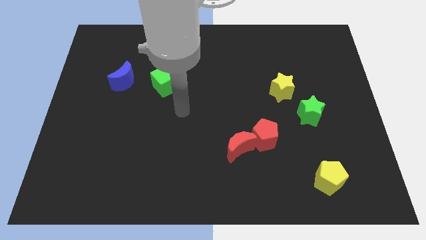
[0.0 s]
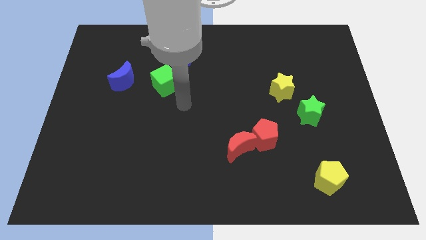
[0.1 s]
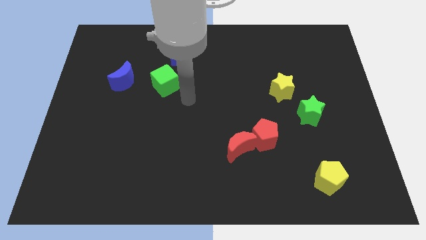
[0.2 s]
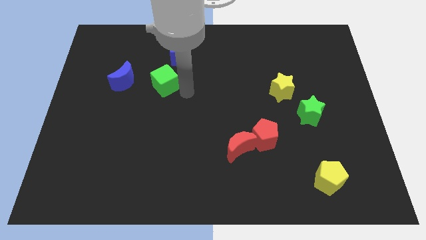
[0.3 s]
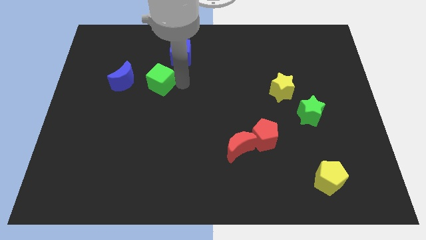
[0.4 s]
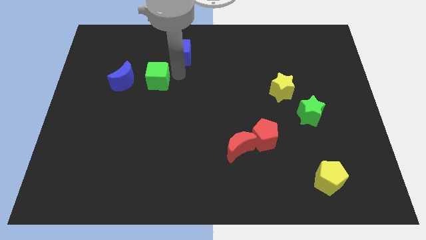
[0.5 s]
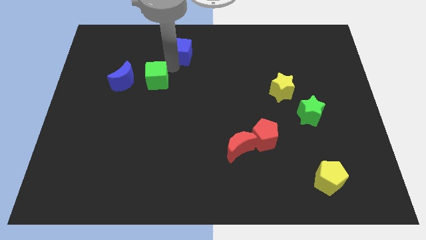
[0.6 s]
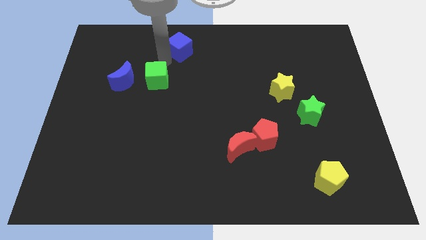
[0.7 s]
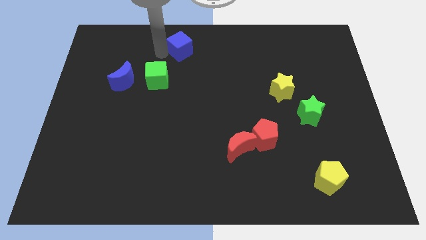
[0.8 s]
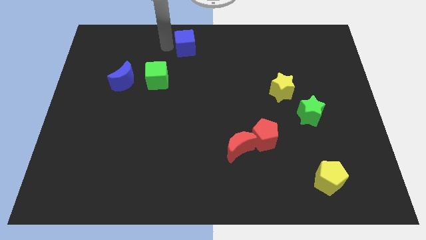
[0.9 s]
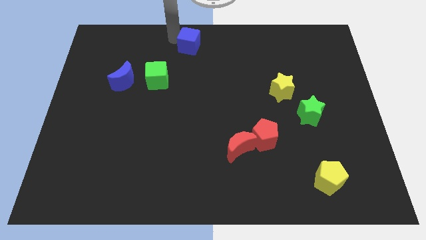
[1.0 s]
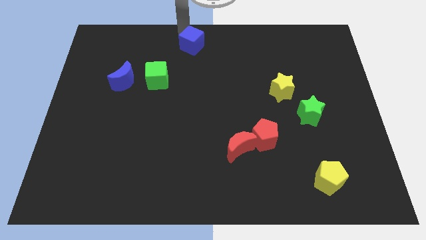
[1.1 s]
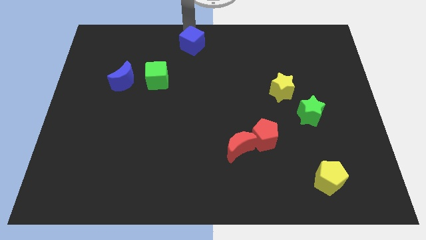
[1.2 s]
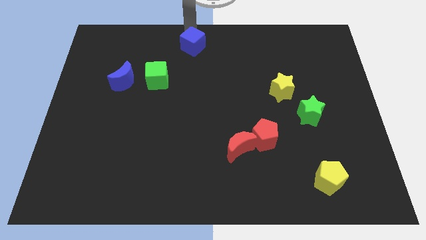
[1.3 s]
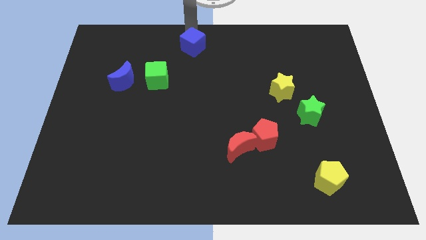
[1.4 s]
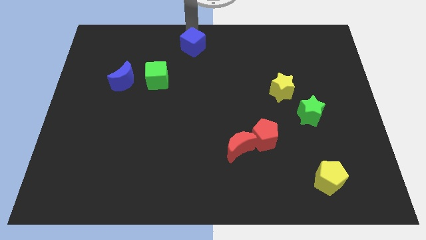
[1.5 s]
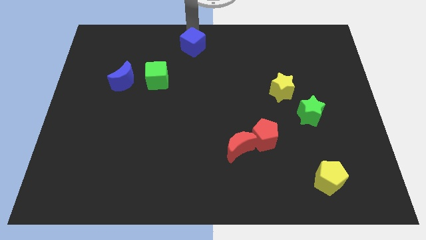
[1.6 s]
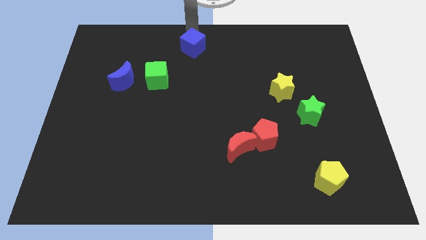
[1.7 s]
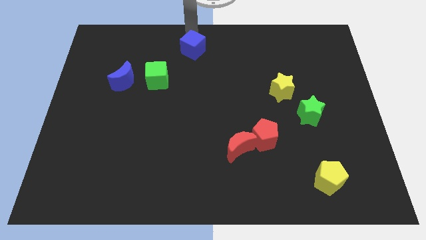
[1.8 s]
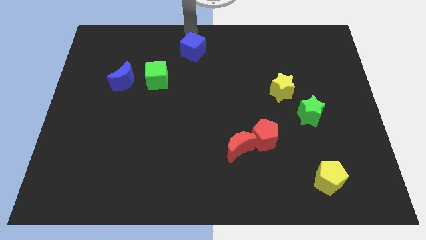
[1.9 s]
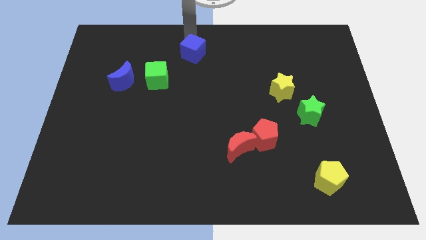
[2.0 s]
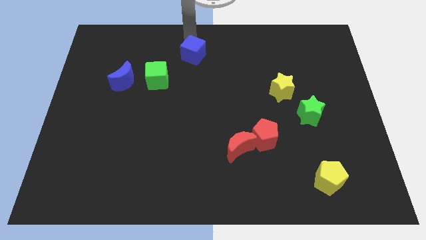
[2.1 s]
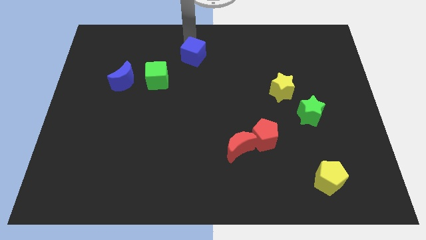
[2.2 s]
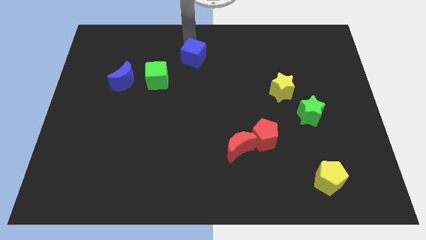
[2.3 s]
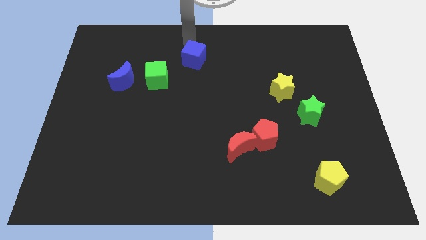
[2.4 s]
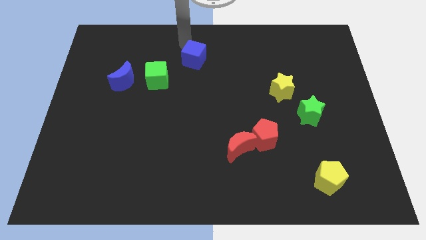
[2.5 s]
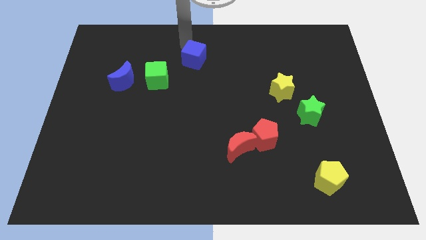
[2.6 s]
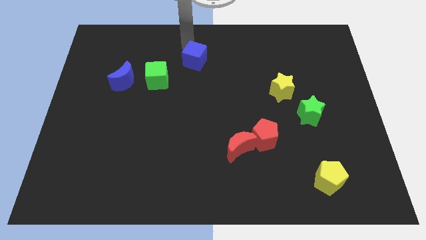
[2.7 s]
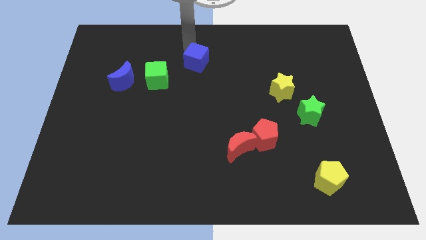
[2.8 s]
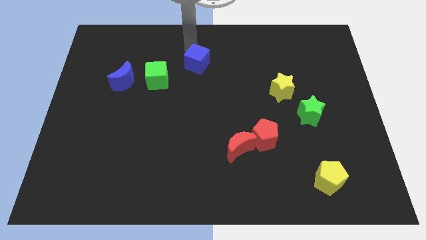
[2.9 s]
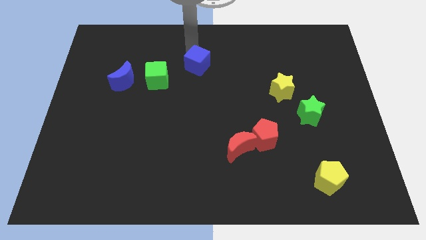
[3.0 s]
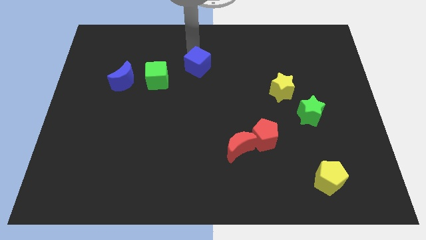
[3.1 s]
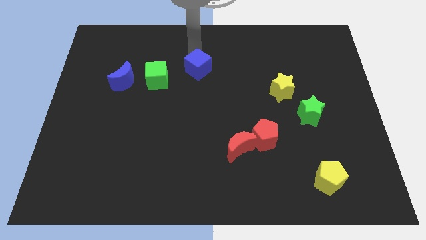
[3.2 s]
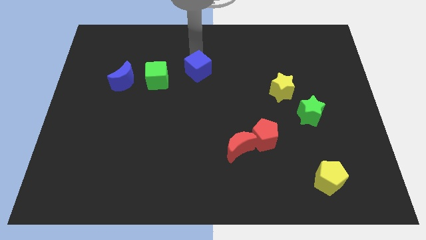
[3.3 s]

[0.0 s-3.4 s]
move the blue cube a little bit down and then right

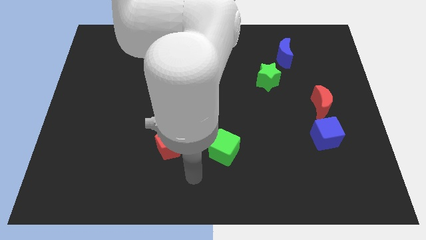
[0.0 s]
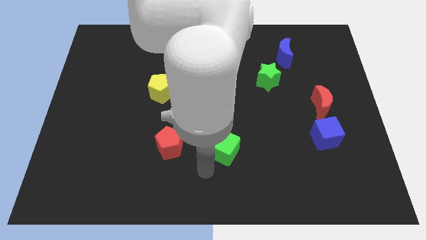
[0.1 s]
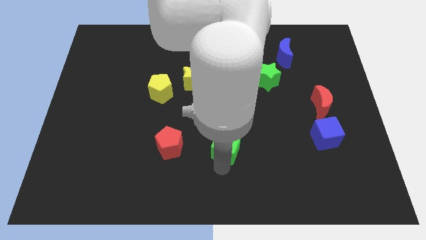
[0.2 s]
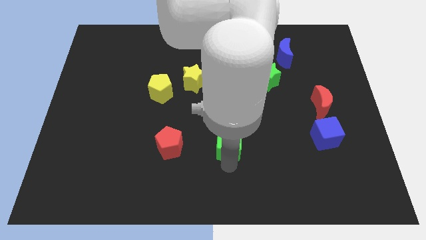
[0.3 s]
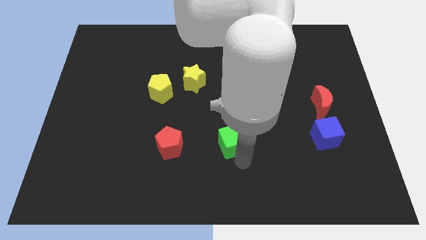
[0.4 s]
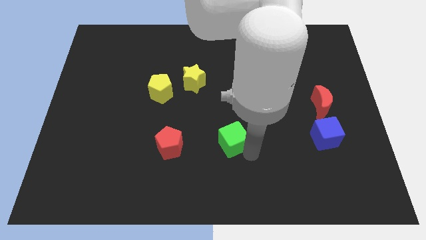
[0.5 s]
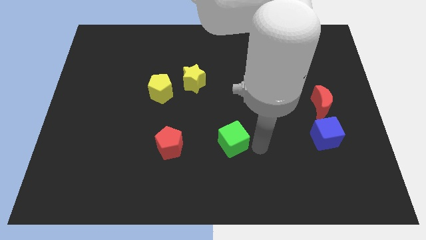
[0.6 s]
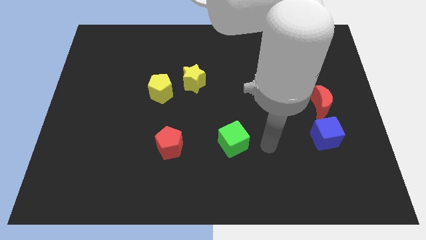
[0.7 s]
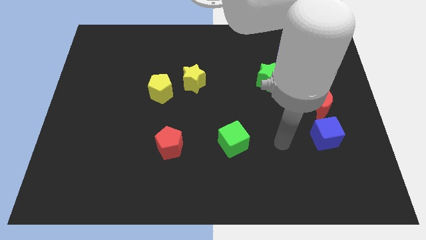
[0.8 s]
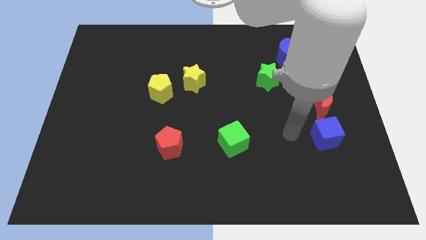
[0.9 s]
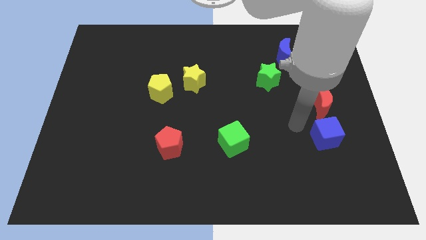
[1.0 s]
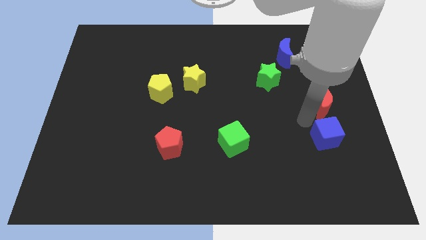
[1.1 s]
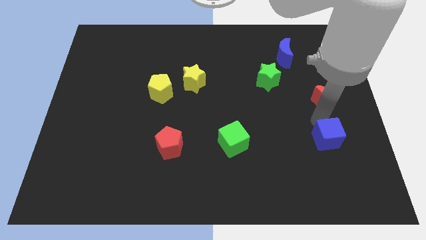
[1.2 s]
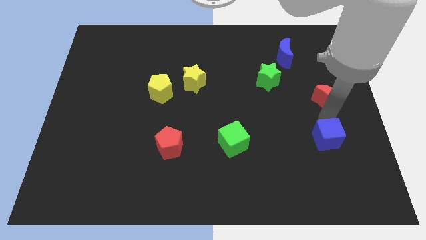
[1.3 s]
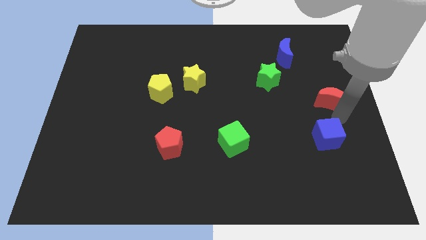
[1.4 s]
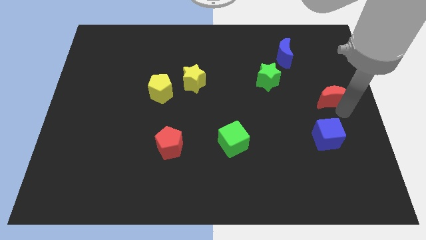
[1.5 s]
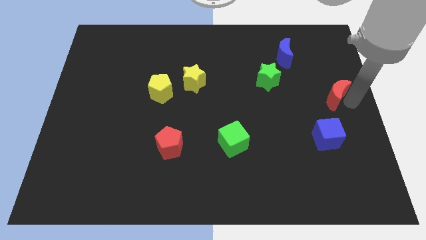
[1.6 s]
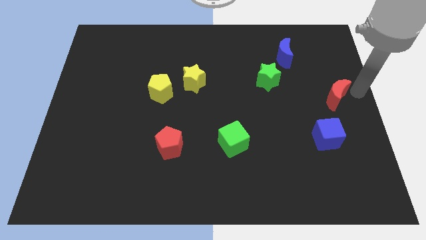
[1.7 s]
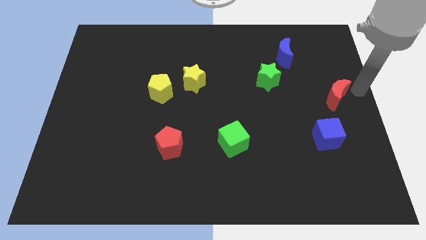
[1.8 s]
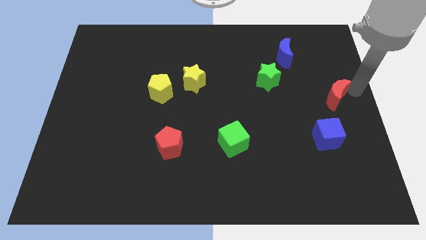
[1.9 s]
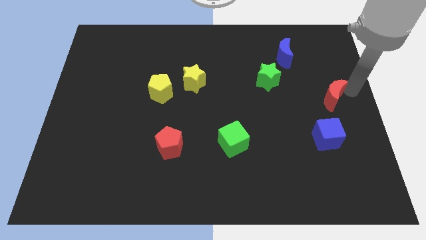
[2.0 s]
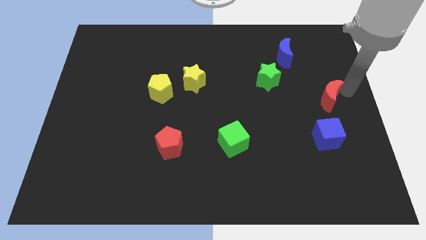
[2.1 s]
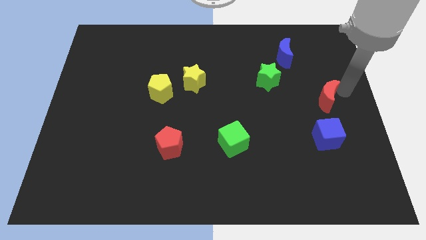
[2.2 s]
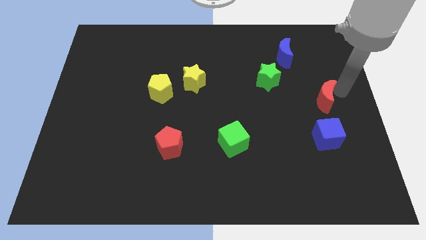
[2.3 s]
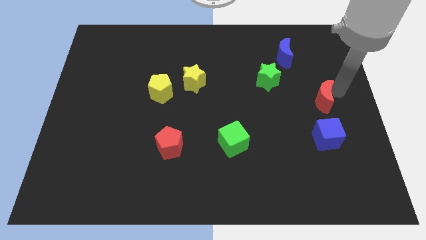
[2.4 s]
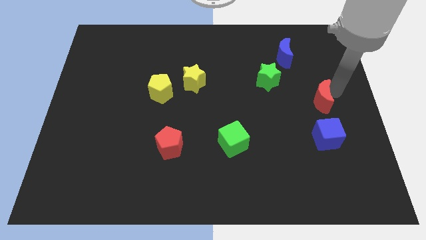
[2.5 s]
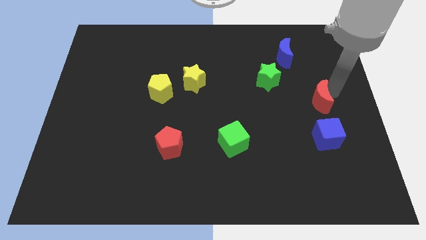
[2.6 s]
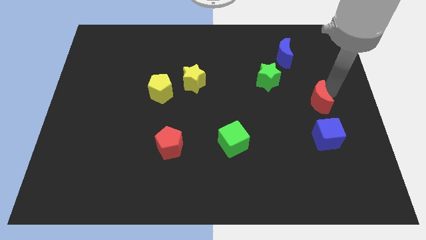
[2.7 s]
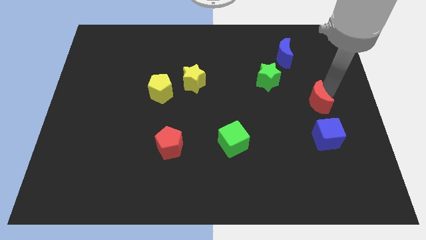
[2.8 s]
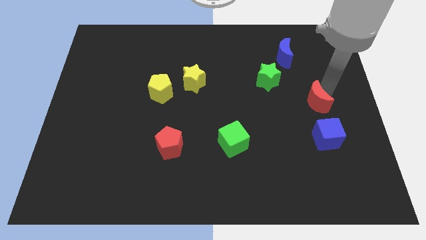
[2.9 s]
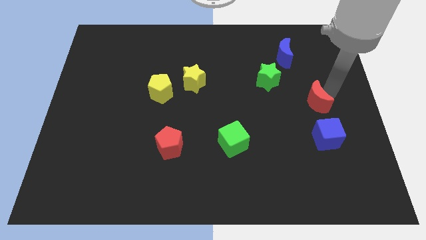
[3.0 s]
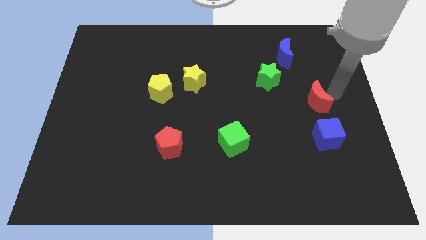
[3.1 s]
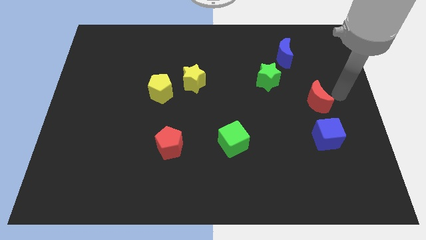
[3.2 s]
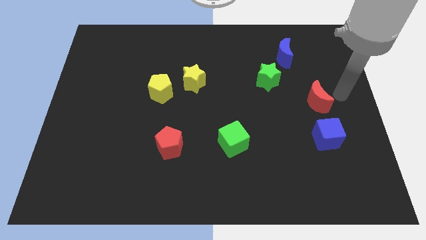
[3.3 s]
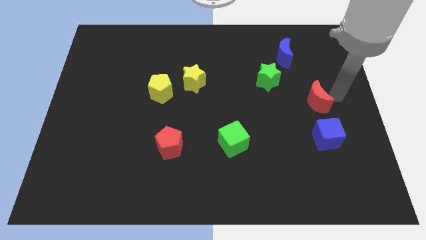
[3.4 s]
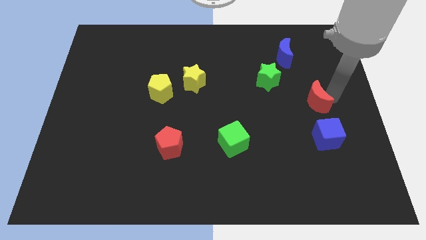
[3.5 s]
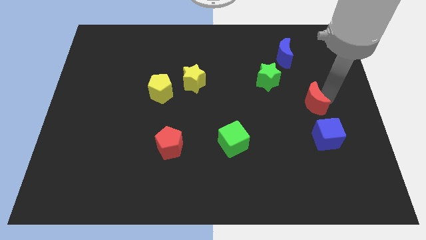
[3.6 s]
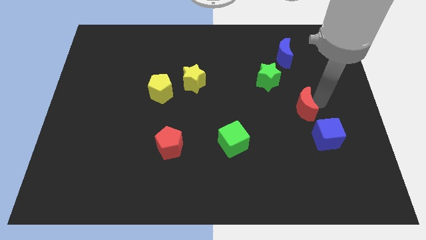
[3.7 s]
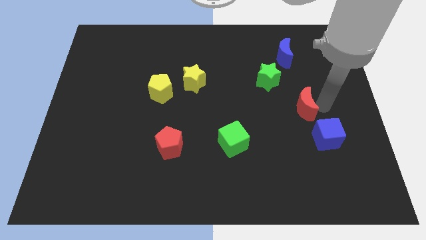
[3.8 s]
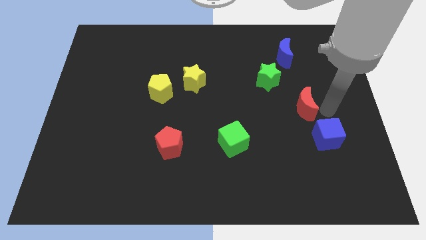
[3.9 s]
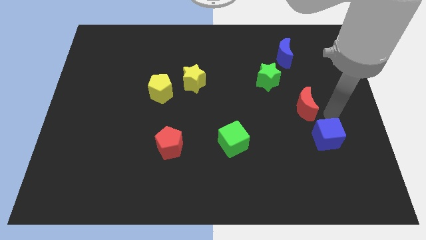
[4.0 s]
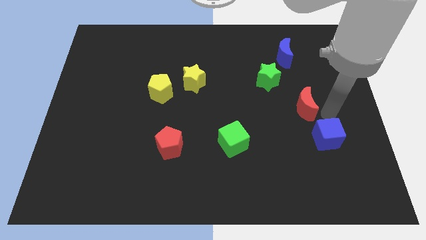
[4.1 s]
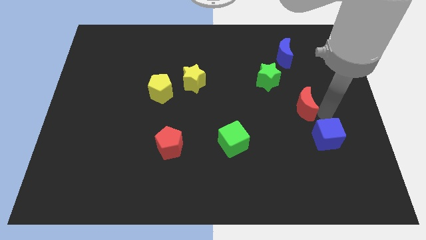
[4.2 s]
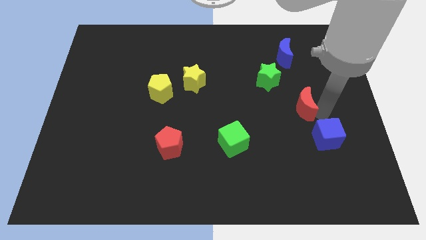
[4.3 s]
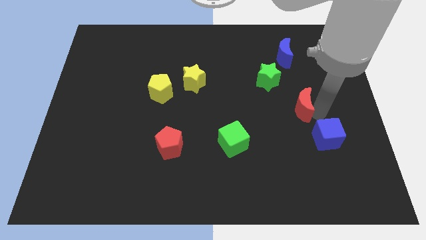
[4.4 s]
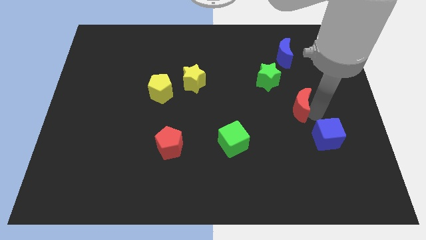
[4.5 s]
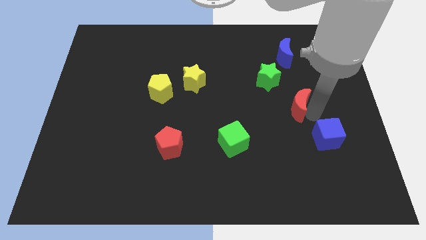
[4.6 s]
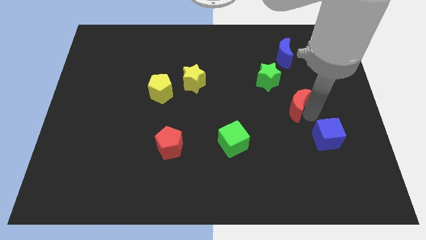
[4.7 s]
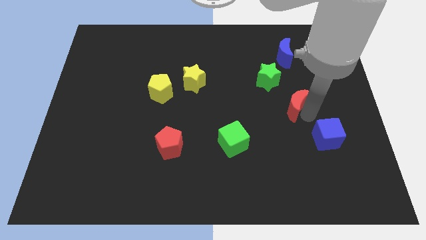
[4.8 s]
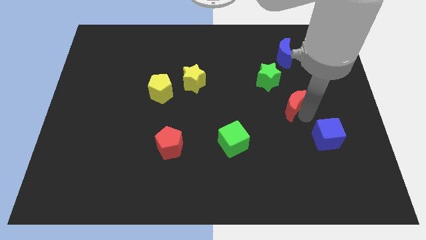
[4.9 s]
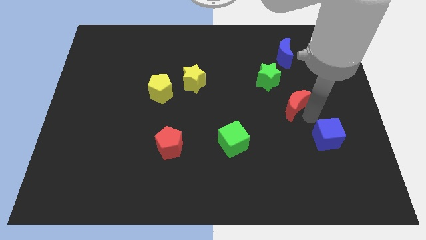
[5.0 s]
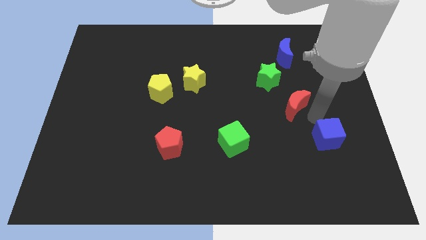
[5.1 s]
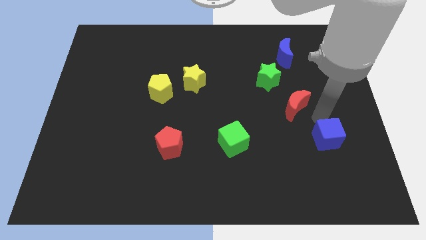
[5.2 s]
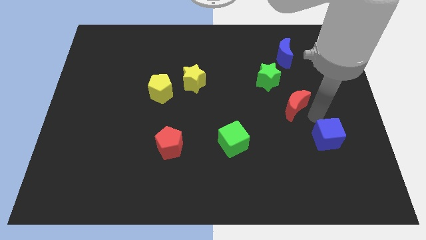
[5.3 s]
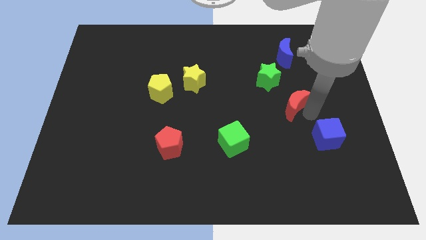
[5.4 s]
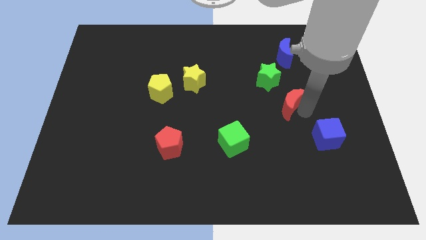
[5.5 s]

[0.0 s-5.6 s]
slide the red moon a bit to the left
